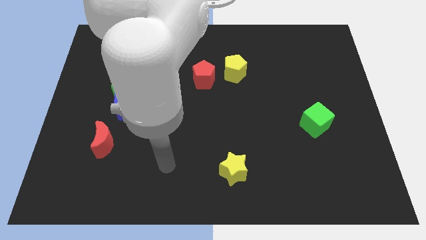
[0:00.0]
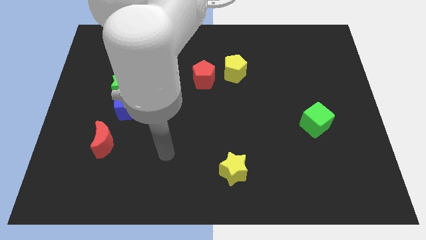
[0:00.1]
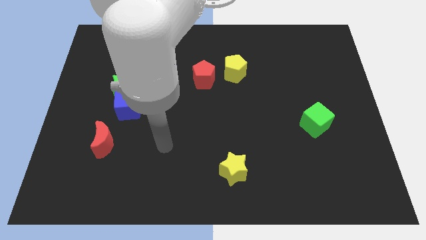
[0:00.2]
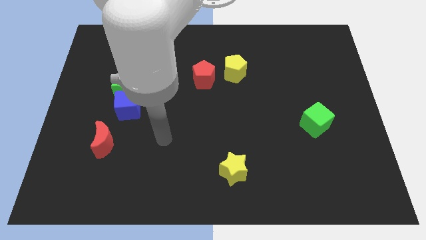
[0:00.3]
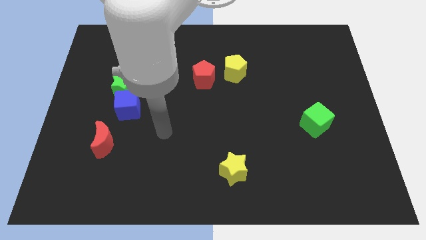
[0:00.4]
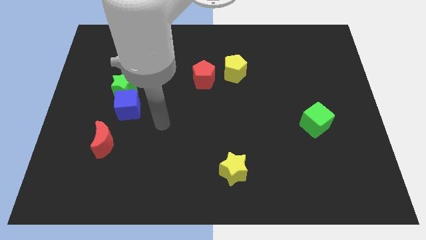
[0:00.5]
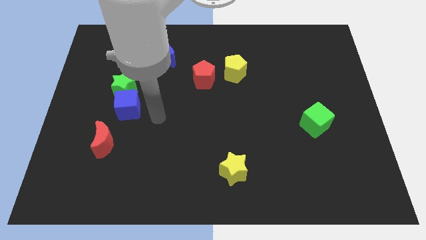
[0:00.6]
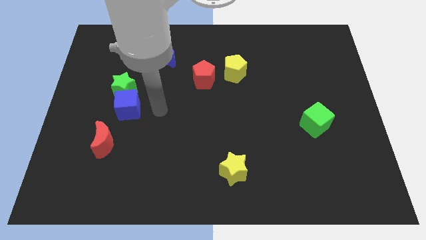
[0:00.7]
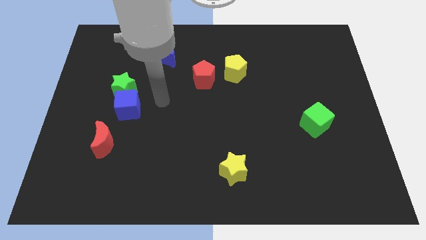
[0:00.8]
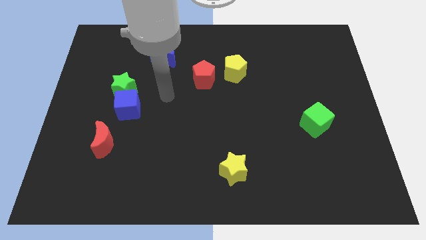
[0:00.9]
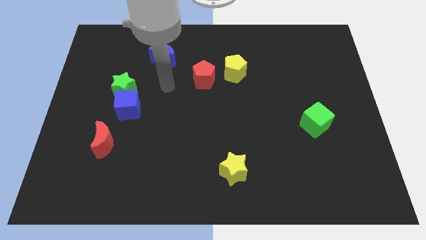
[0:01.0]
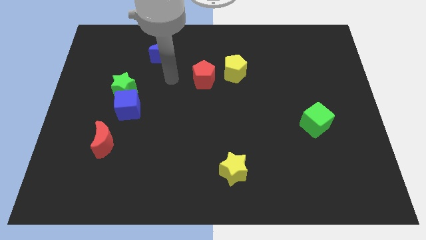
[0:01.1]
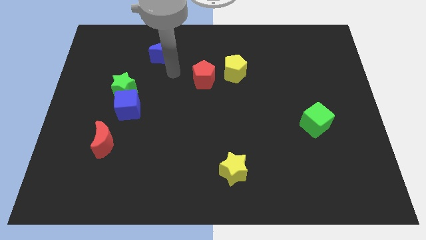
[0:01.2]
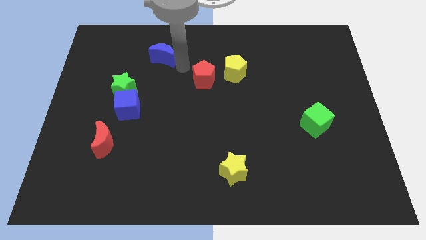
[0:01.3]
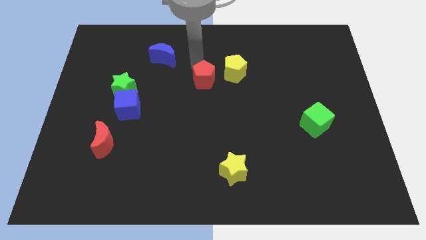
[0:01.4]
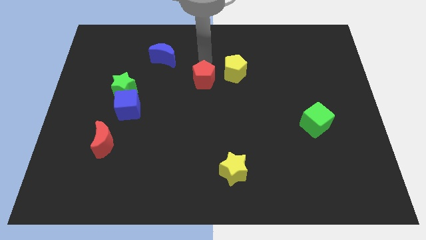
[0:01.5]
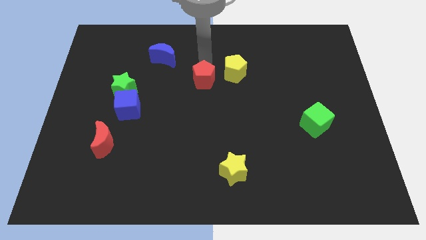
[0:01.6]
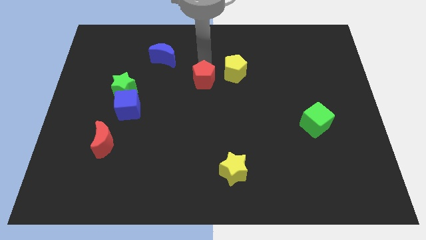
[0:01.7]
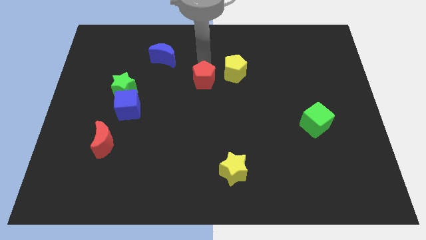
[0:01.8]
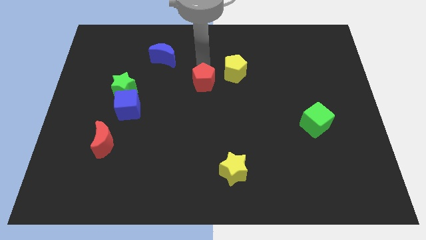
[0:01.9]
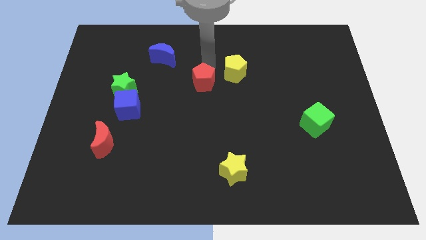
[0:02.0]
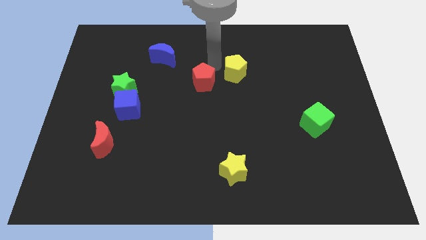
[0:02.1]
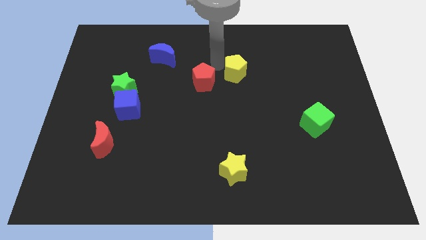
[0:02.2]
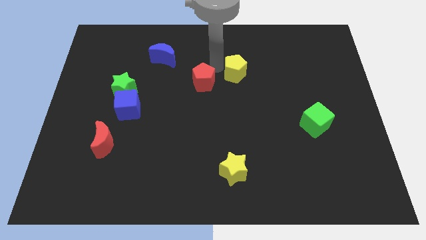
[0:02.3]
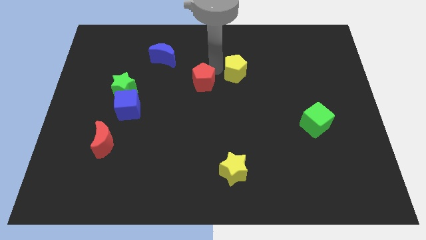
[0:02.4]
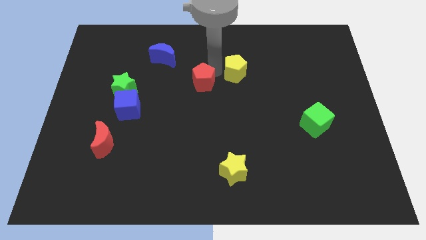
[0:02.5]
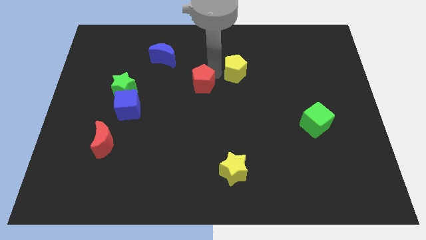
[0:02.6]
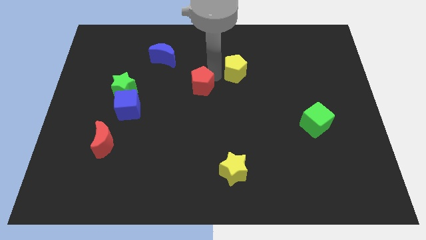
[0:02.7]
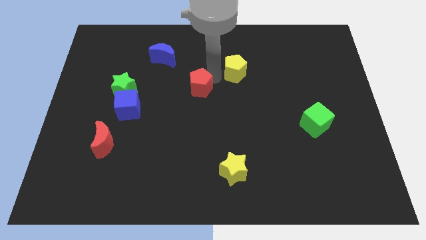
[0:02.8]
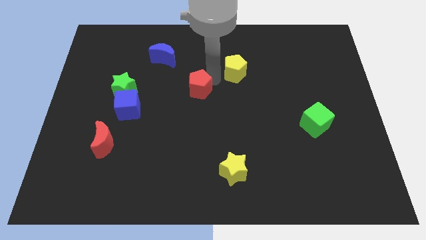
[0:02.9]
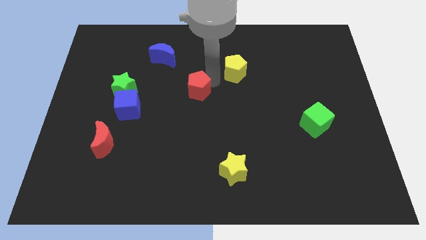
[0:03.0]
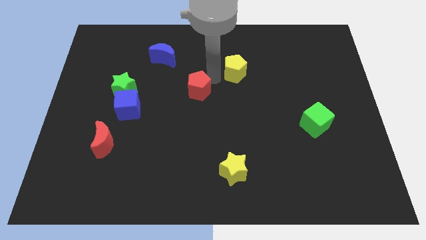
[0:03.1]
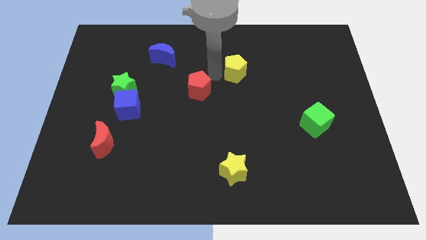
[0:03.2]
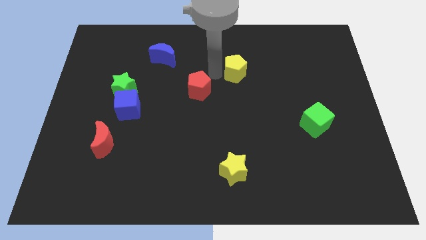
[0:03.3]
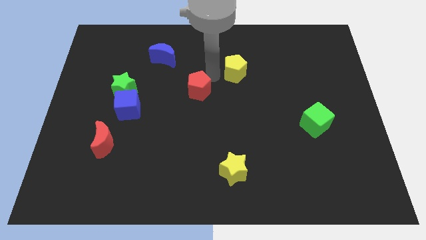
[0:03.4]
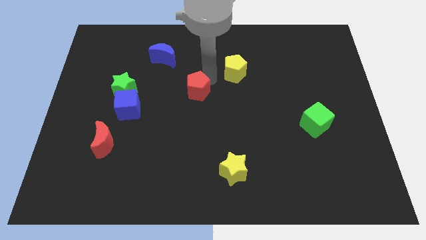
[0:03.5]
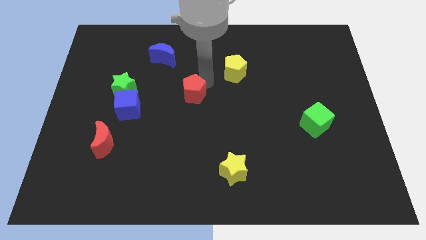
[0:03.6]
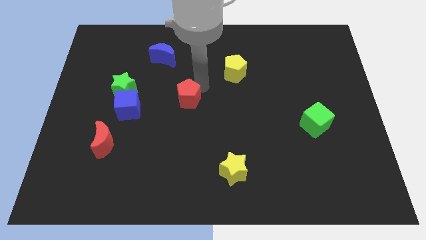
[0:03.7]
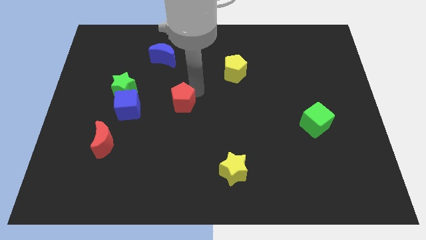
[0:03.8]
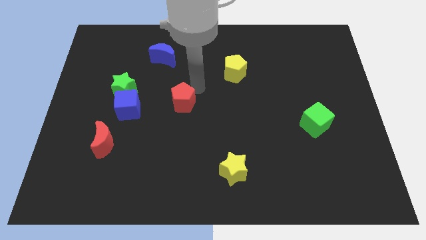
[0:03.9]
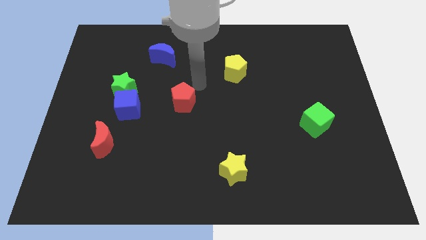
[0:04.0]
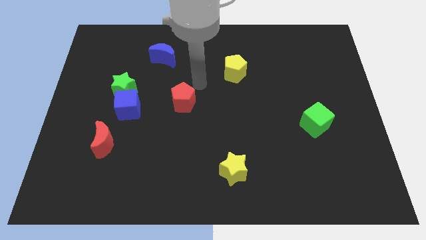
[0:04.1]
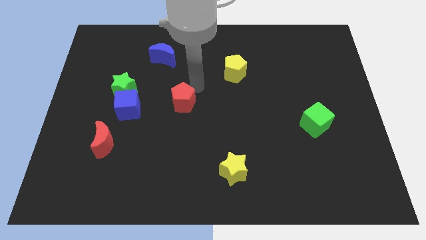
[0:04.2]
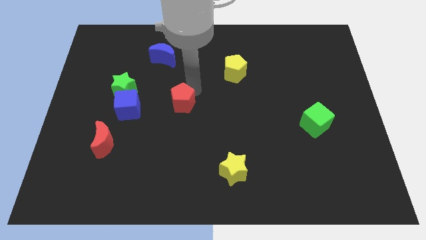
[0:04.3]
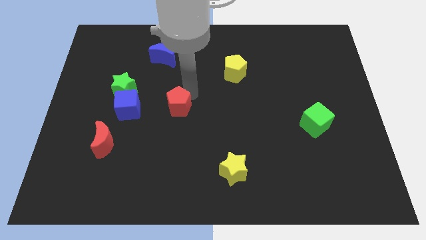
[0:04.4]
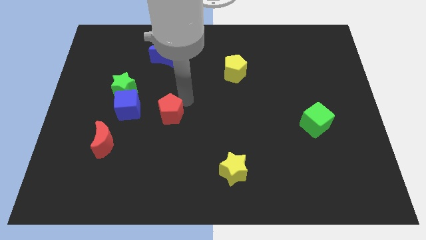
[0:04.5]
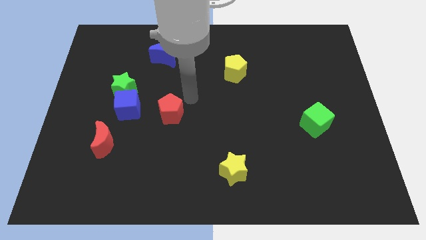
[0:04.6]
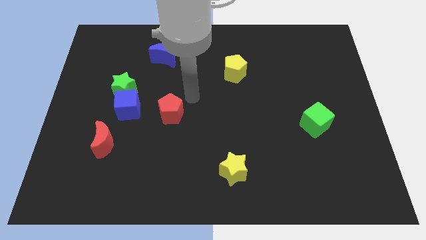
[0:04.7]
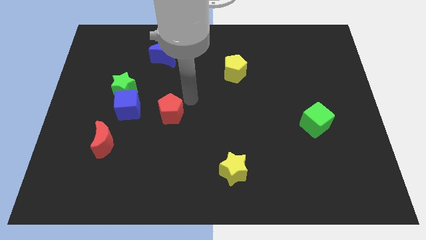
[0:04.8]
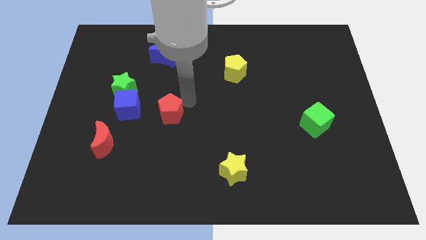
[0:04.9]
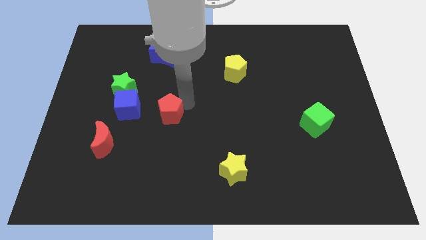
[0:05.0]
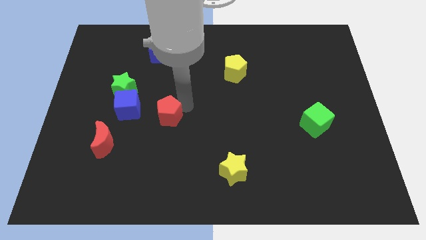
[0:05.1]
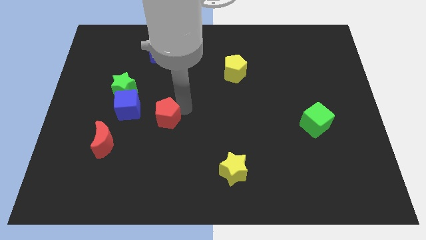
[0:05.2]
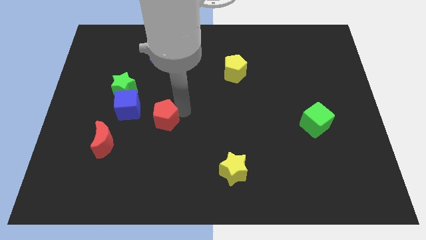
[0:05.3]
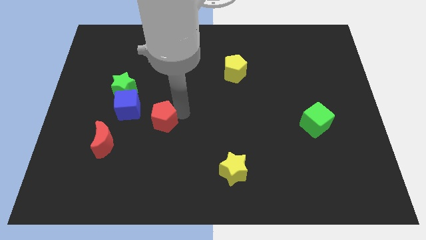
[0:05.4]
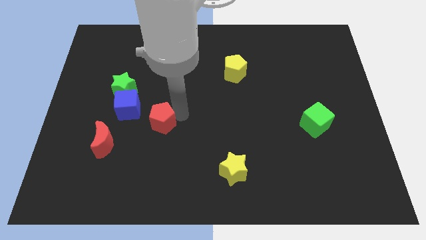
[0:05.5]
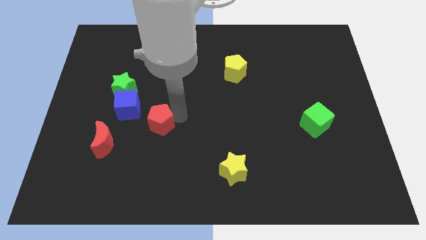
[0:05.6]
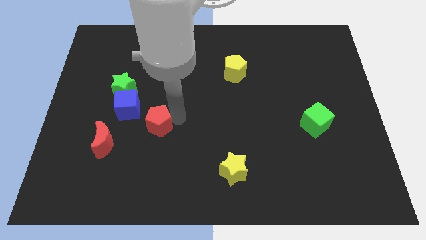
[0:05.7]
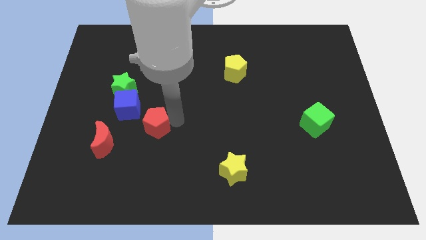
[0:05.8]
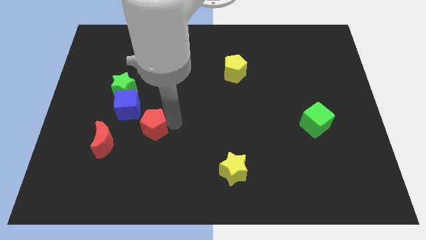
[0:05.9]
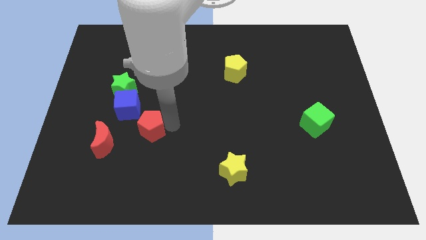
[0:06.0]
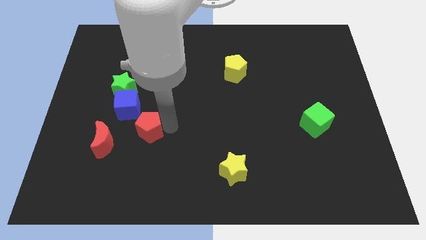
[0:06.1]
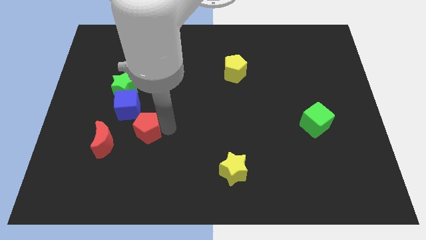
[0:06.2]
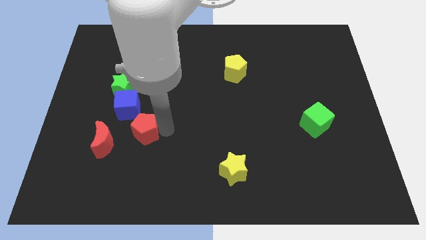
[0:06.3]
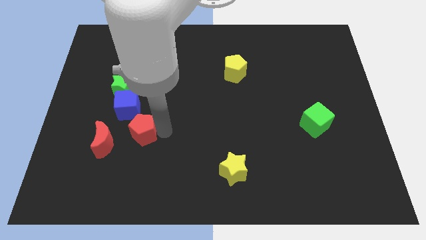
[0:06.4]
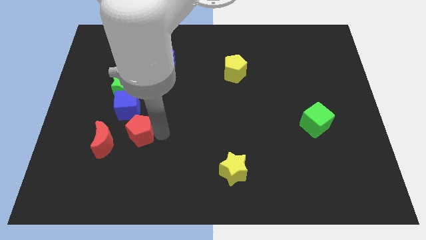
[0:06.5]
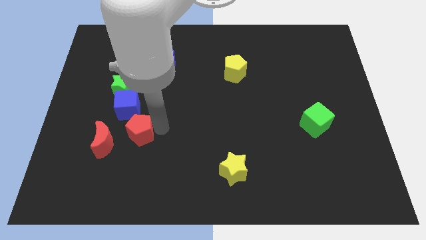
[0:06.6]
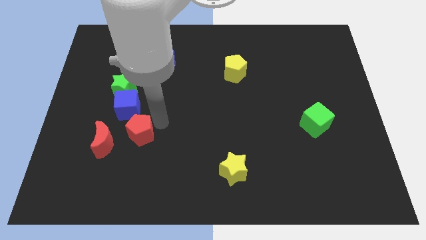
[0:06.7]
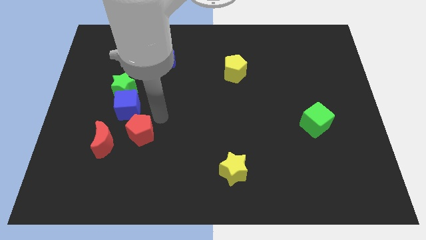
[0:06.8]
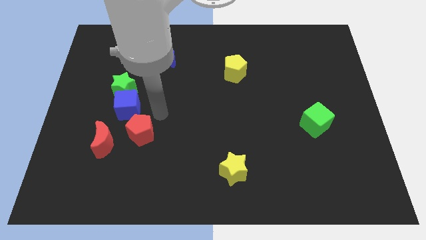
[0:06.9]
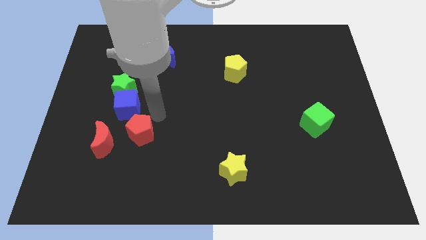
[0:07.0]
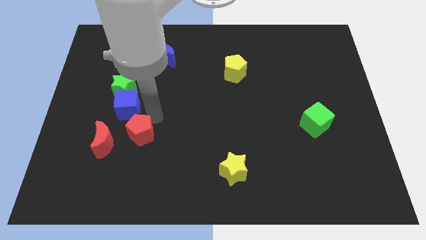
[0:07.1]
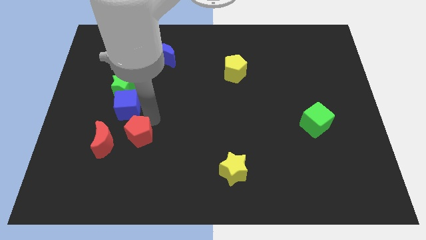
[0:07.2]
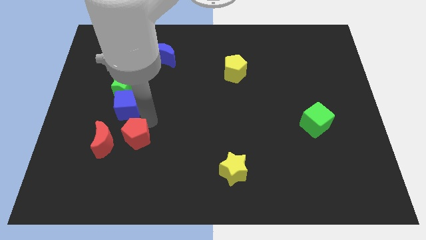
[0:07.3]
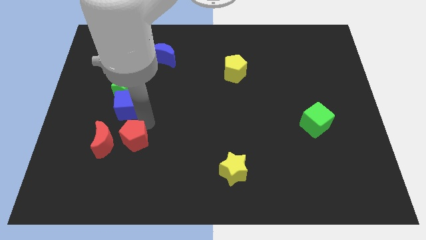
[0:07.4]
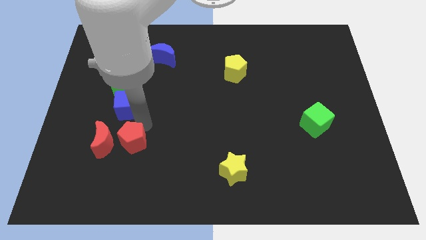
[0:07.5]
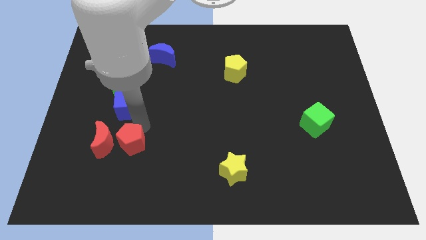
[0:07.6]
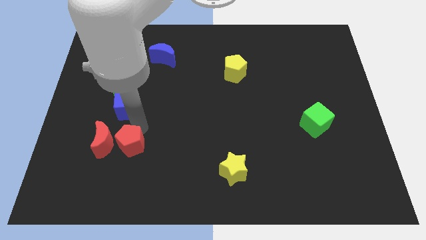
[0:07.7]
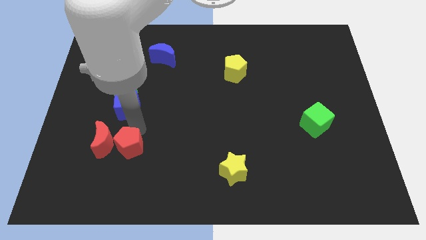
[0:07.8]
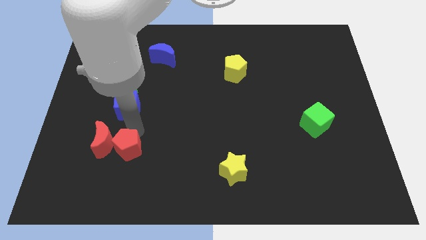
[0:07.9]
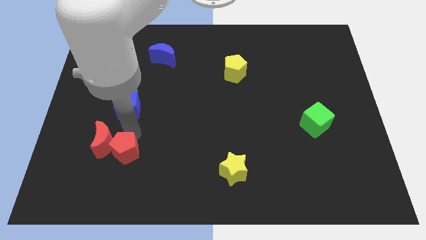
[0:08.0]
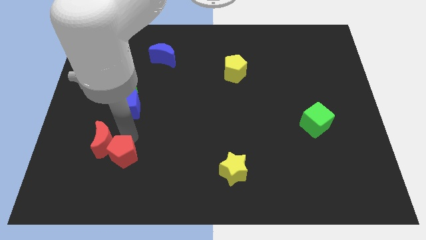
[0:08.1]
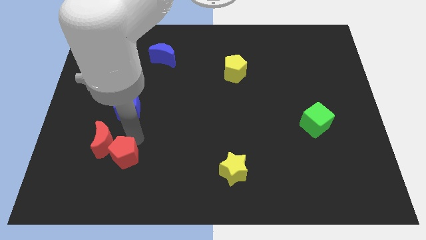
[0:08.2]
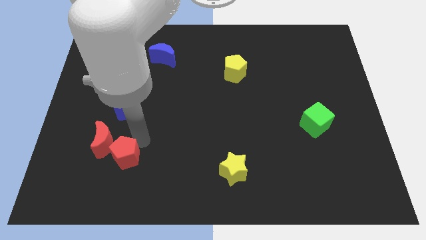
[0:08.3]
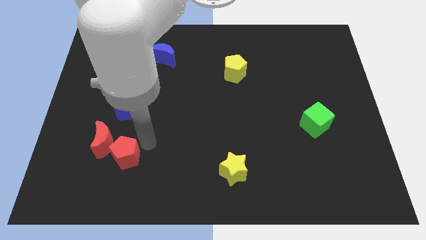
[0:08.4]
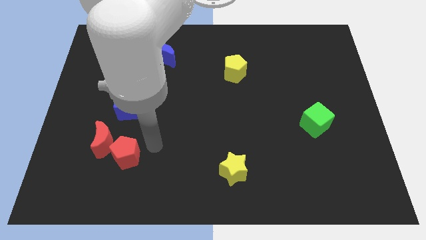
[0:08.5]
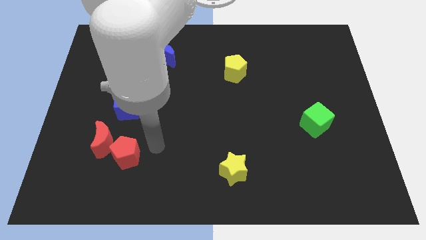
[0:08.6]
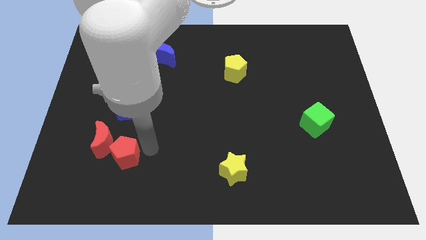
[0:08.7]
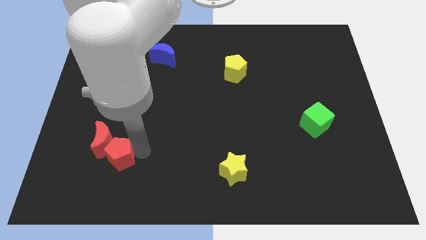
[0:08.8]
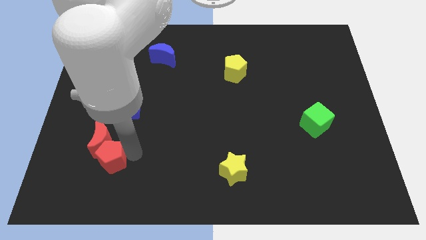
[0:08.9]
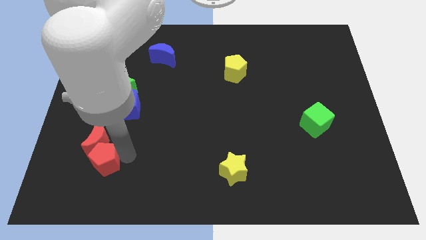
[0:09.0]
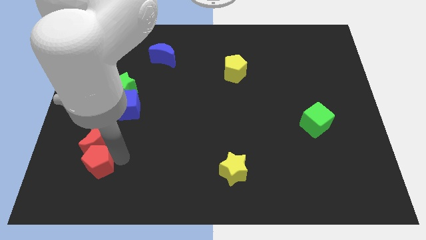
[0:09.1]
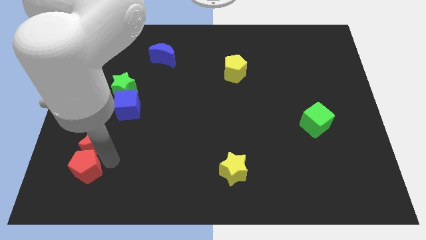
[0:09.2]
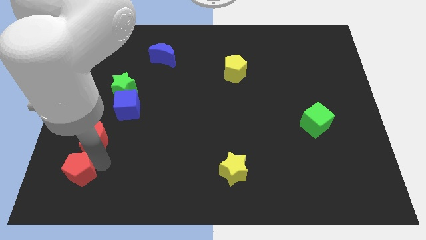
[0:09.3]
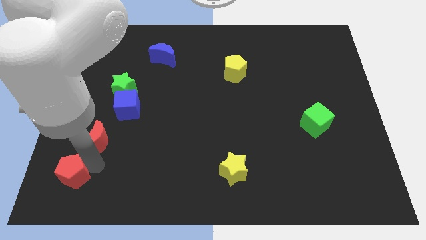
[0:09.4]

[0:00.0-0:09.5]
push the red pentagon to the bottom left of the board
